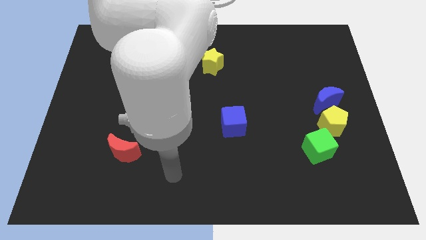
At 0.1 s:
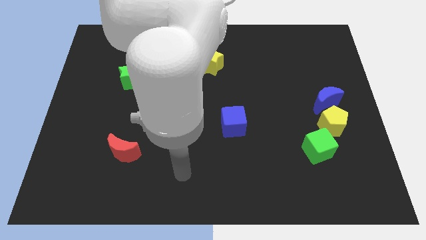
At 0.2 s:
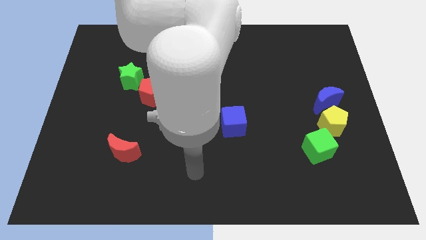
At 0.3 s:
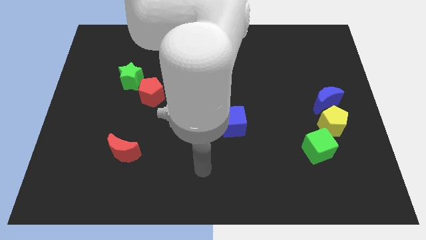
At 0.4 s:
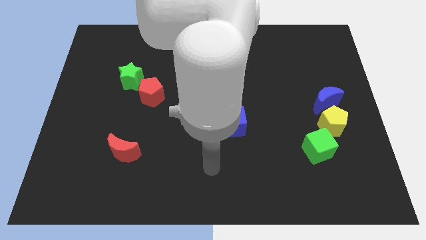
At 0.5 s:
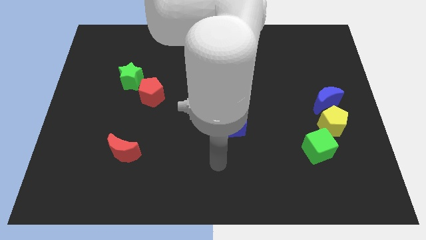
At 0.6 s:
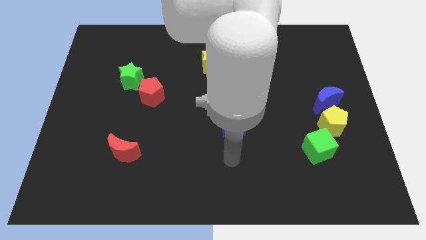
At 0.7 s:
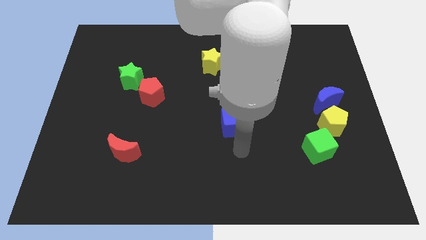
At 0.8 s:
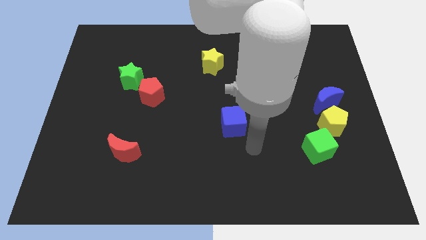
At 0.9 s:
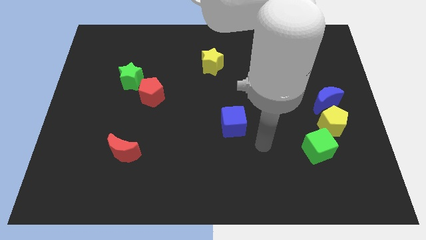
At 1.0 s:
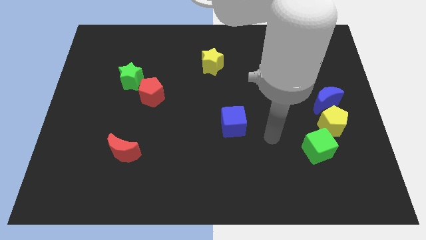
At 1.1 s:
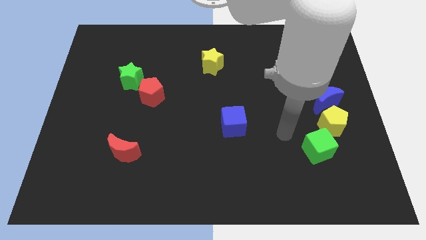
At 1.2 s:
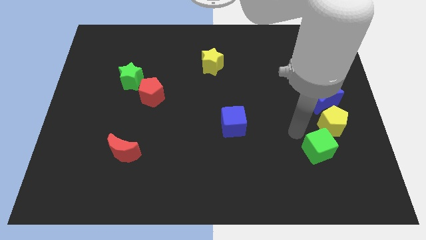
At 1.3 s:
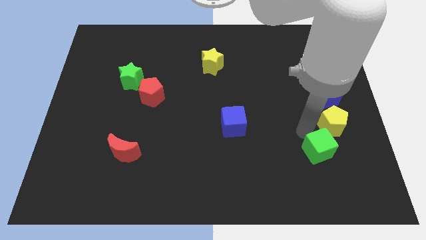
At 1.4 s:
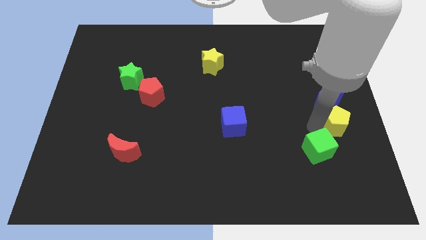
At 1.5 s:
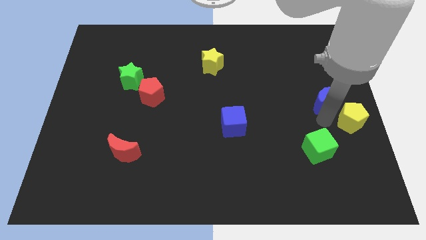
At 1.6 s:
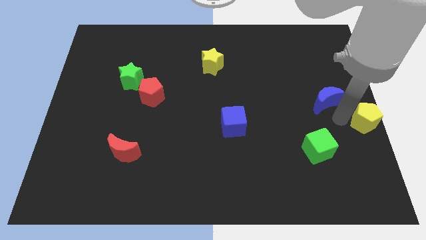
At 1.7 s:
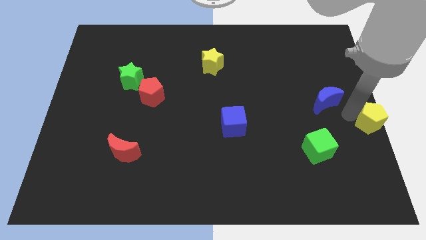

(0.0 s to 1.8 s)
move the blue moon away from the yellow pentagon

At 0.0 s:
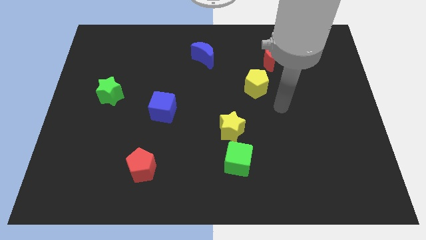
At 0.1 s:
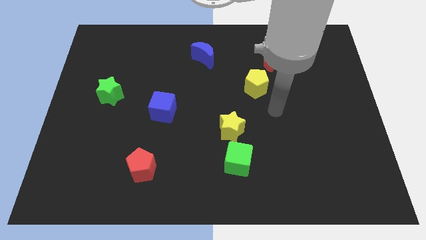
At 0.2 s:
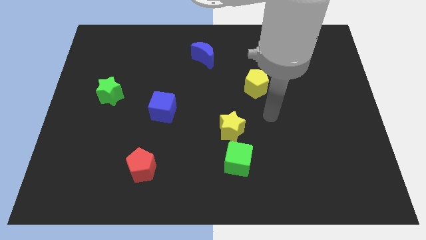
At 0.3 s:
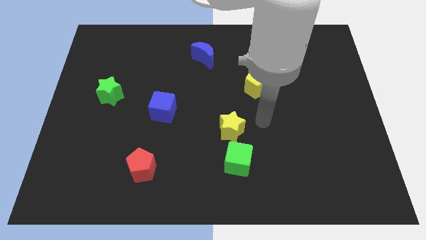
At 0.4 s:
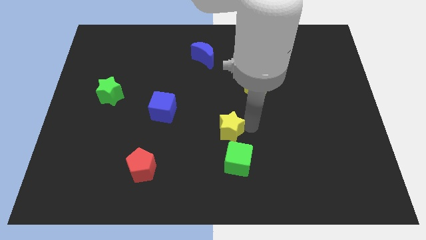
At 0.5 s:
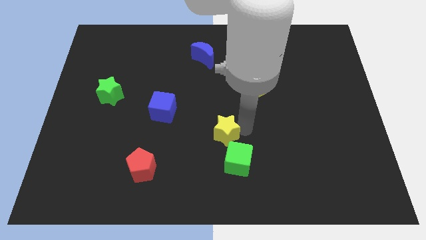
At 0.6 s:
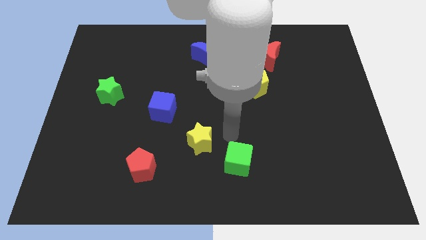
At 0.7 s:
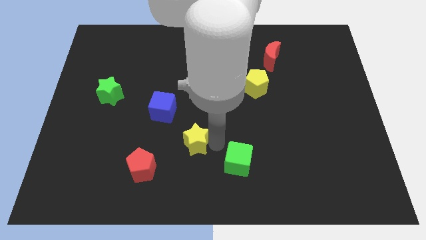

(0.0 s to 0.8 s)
pull the green cube apart from the yellow star

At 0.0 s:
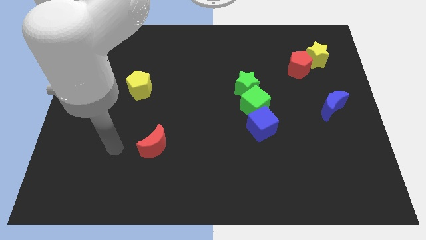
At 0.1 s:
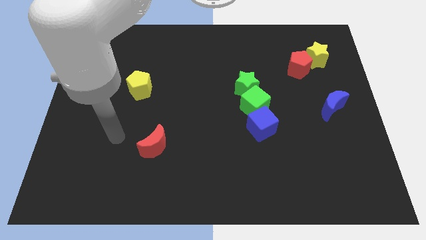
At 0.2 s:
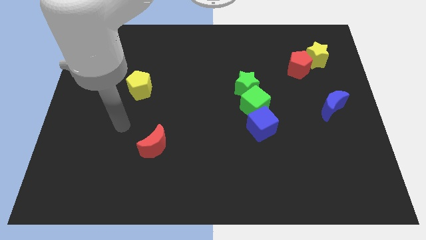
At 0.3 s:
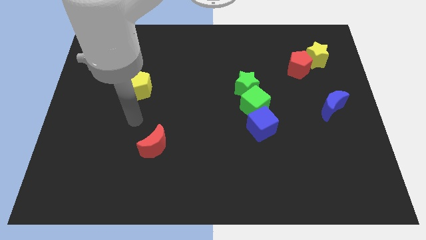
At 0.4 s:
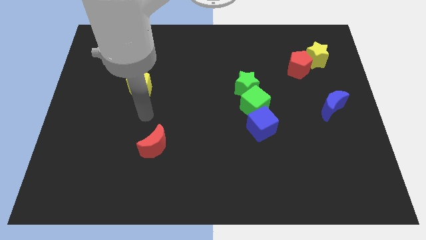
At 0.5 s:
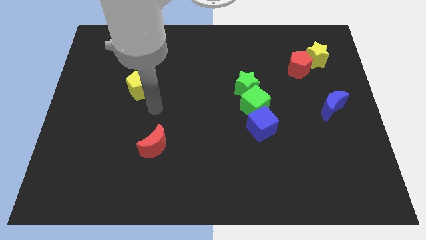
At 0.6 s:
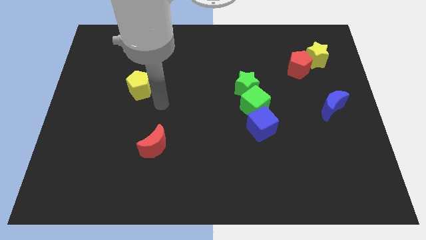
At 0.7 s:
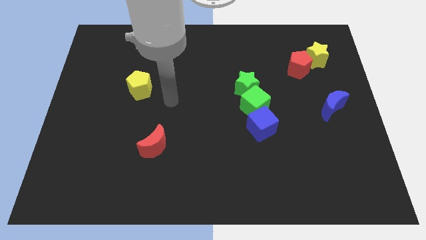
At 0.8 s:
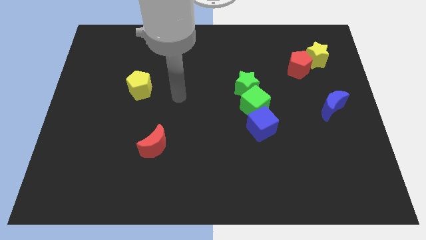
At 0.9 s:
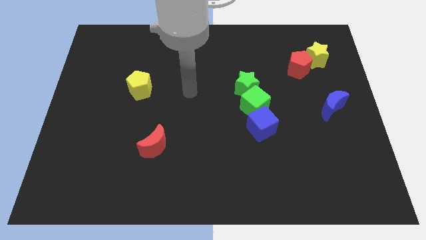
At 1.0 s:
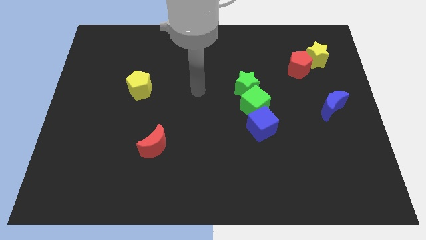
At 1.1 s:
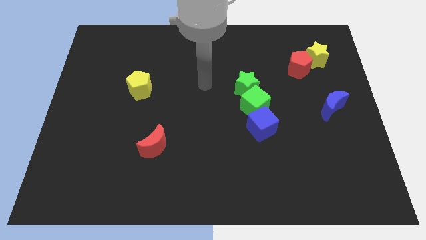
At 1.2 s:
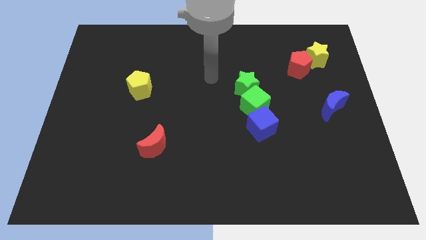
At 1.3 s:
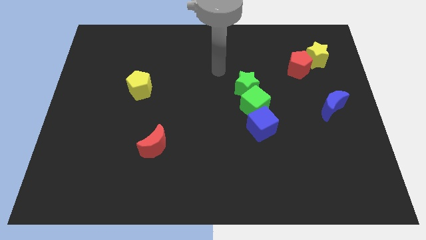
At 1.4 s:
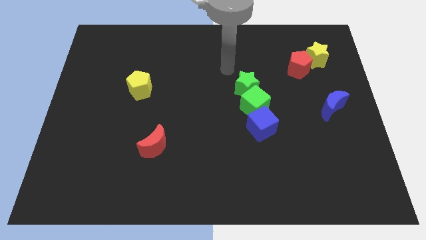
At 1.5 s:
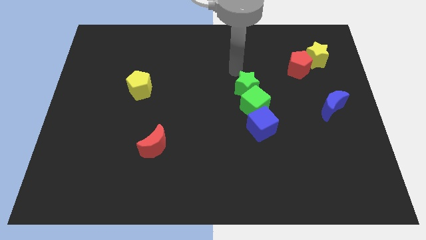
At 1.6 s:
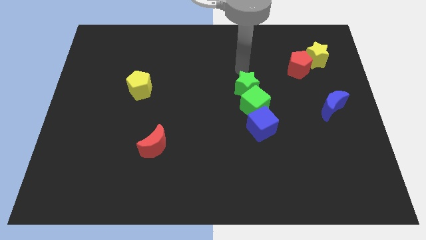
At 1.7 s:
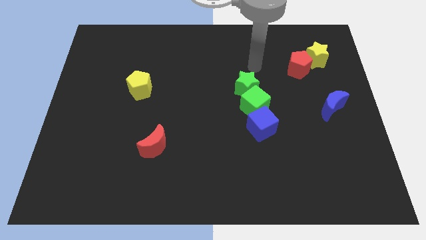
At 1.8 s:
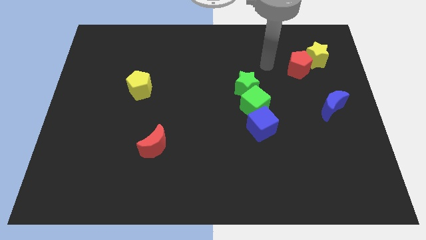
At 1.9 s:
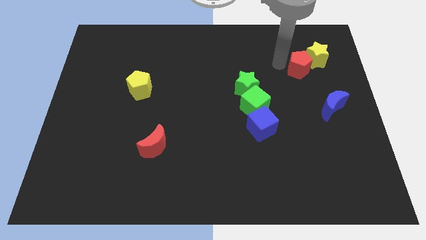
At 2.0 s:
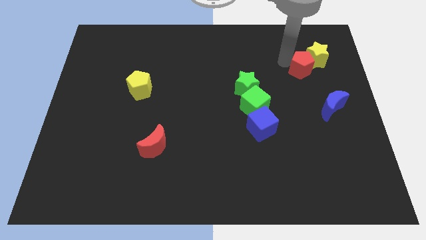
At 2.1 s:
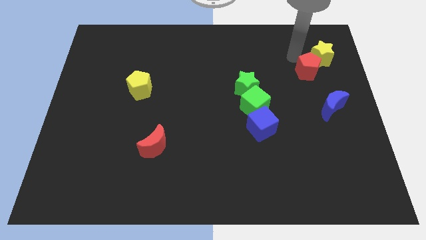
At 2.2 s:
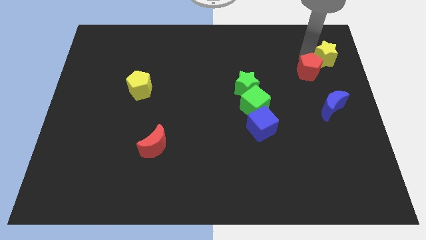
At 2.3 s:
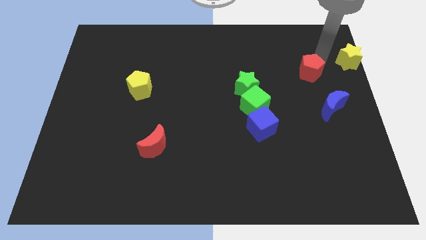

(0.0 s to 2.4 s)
pull the red pentagon apart from the yellow star

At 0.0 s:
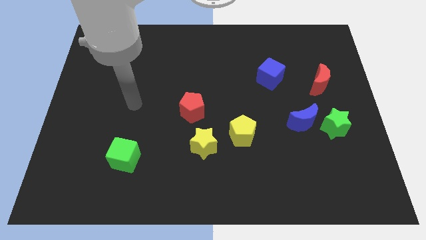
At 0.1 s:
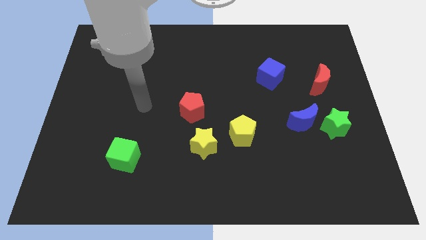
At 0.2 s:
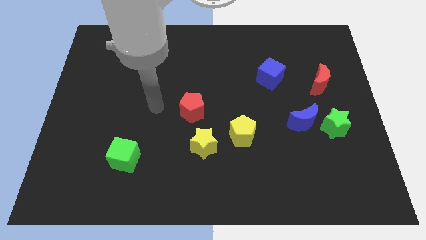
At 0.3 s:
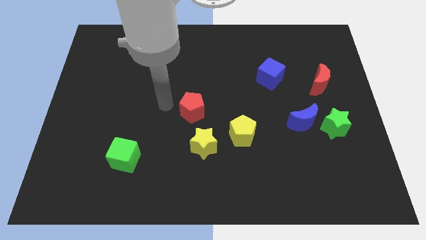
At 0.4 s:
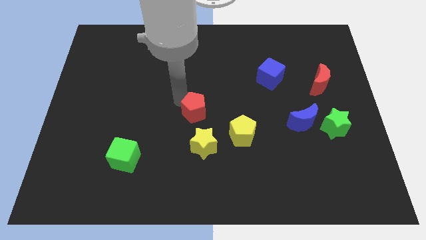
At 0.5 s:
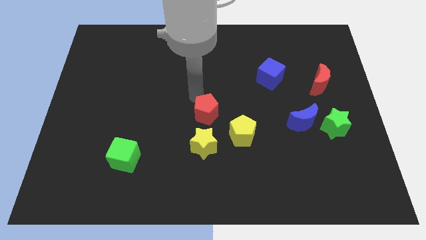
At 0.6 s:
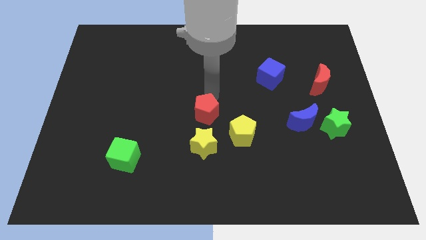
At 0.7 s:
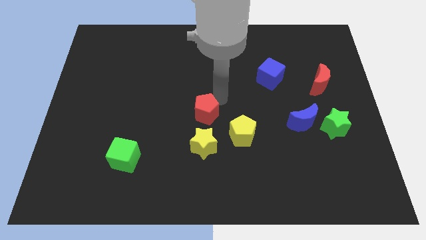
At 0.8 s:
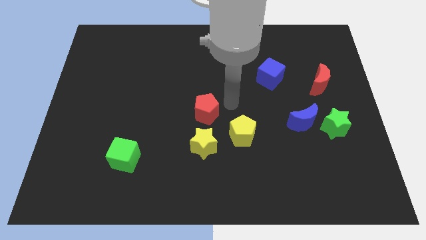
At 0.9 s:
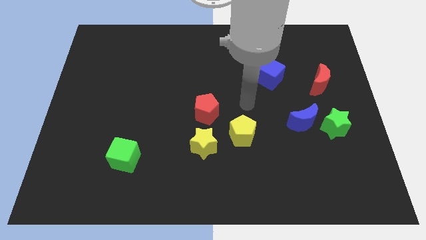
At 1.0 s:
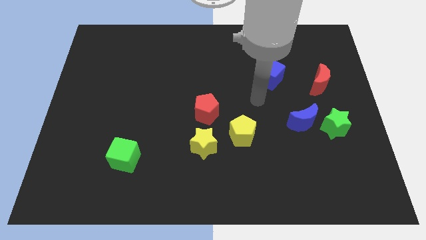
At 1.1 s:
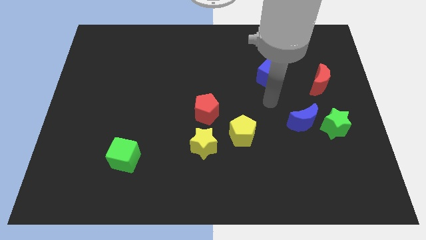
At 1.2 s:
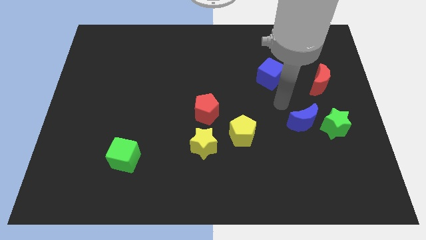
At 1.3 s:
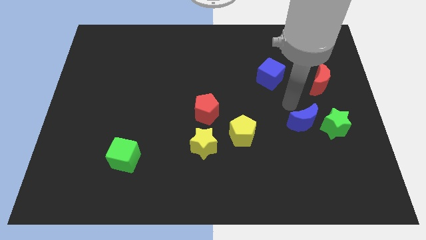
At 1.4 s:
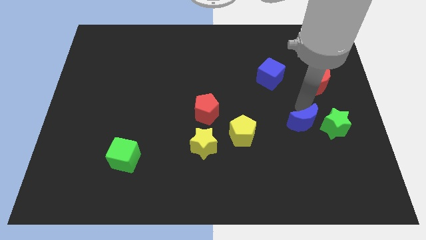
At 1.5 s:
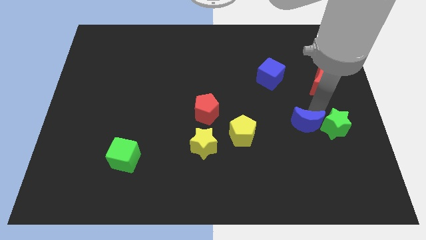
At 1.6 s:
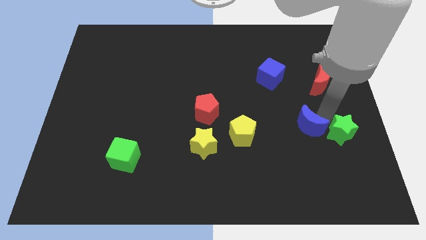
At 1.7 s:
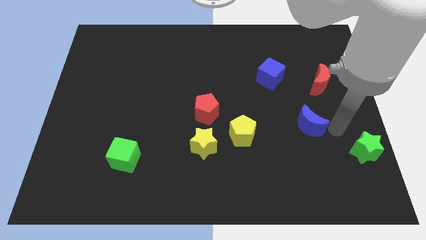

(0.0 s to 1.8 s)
pull the blue moon apart from the green star

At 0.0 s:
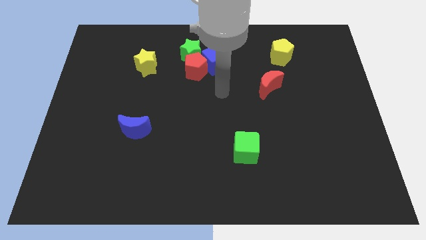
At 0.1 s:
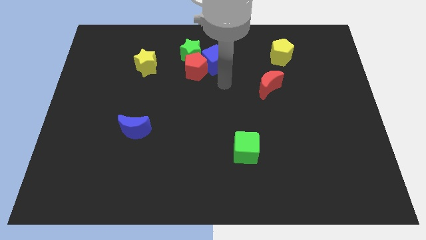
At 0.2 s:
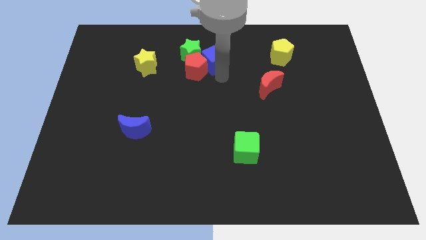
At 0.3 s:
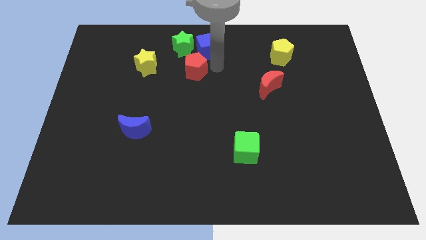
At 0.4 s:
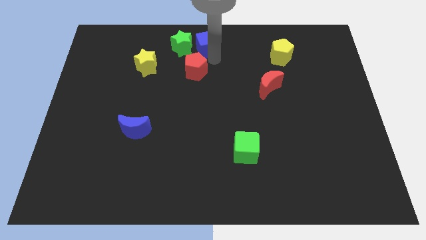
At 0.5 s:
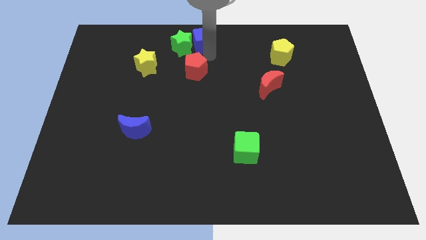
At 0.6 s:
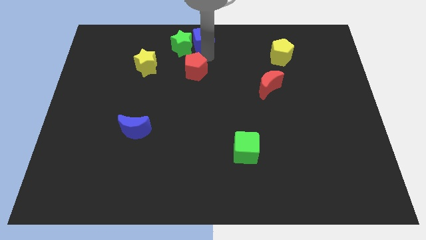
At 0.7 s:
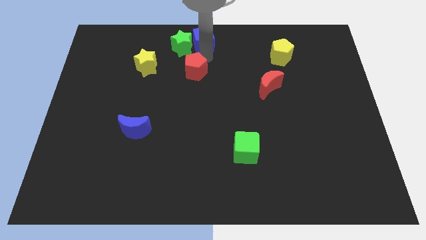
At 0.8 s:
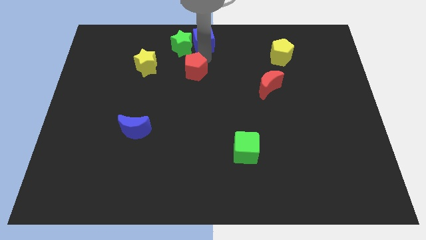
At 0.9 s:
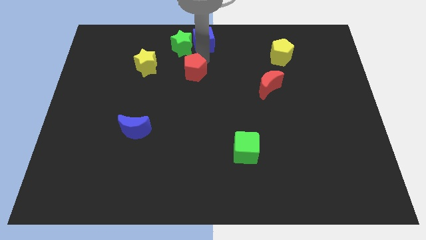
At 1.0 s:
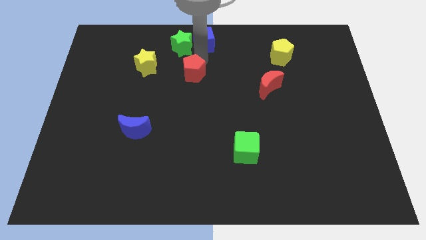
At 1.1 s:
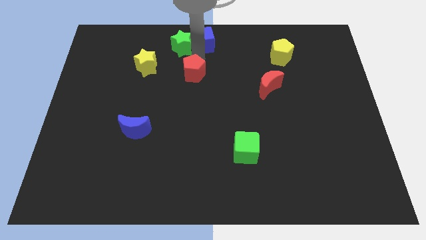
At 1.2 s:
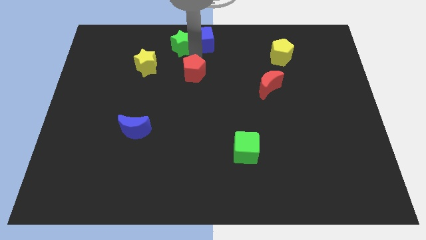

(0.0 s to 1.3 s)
move the red pentagon away from the green star and blue cube

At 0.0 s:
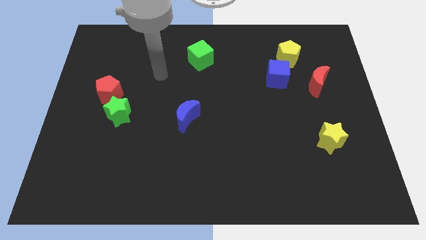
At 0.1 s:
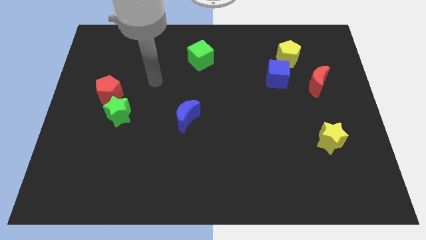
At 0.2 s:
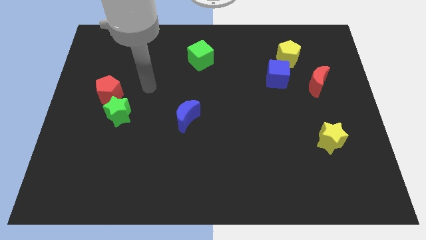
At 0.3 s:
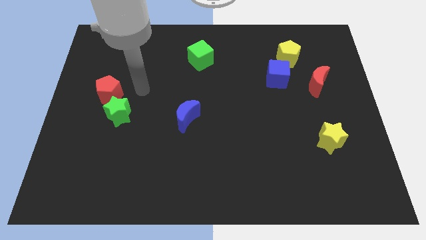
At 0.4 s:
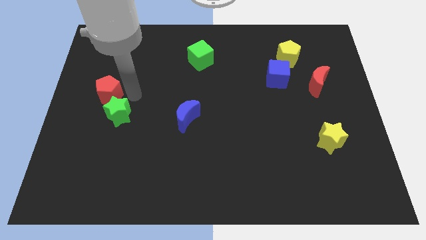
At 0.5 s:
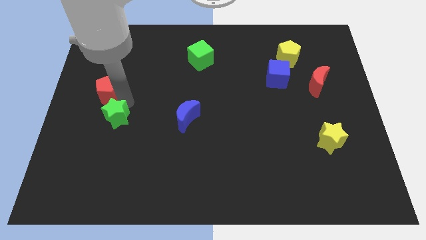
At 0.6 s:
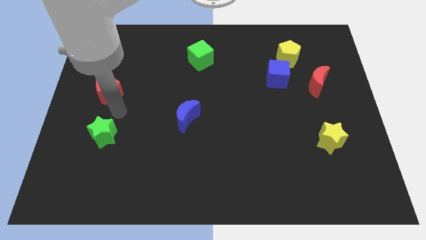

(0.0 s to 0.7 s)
pull the red pentagon apart from the green star

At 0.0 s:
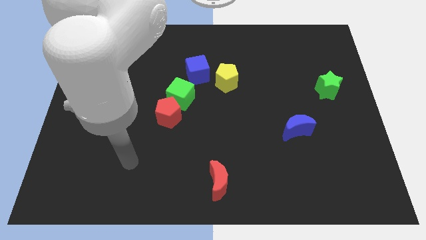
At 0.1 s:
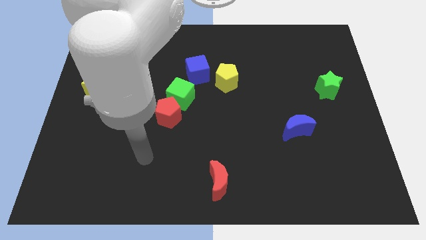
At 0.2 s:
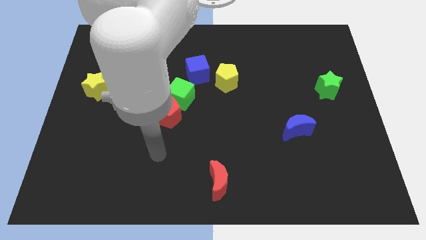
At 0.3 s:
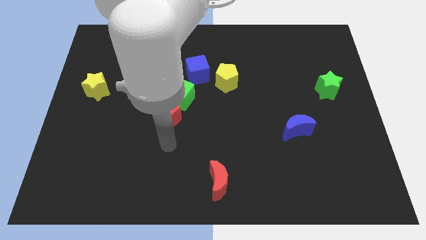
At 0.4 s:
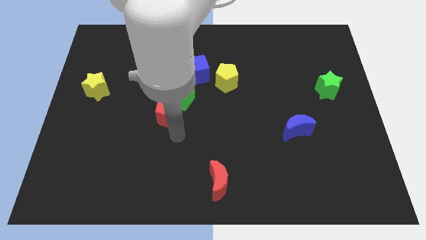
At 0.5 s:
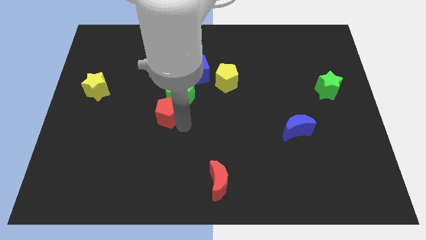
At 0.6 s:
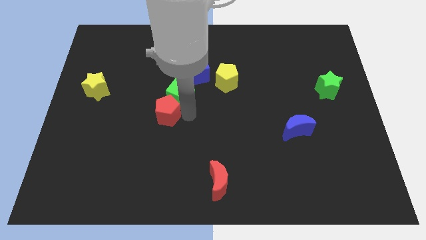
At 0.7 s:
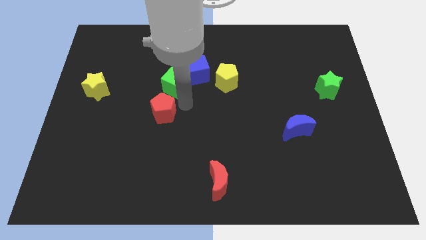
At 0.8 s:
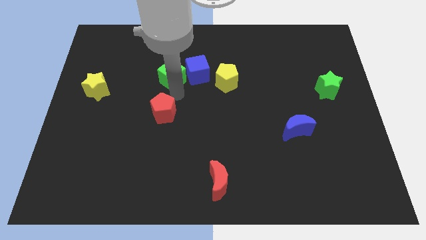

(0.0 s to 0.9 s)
separate the red pentagon from the green cube
